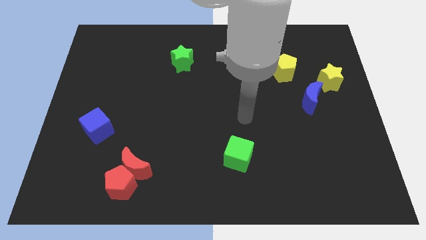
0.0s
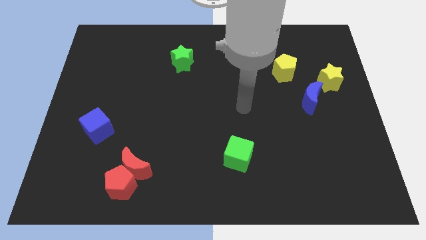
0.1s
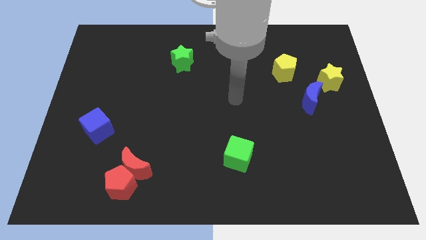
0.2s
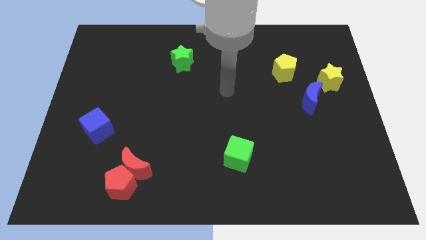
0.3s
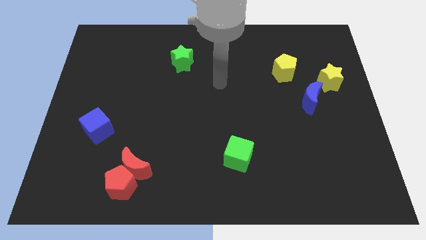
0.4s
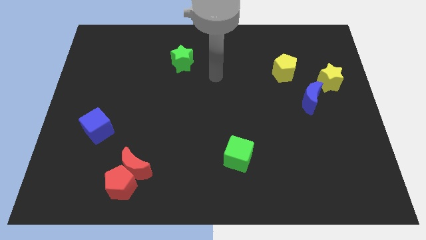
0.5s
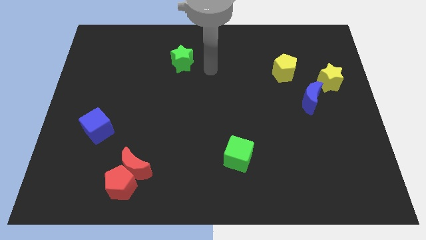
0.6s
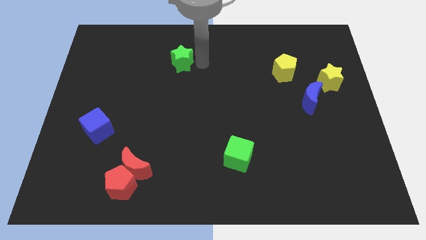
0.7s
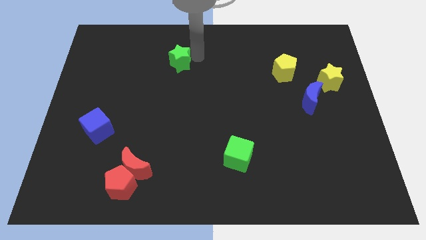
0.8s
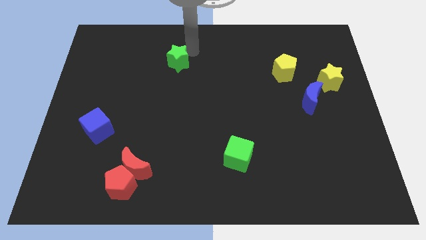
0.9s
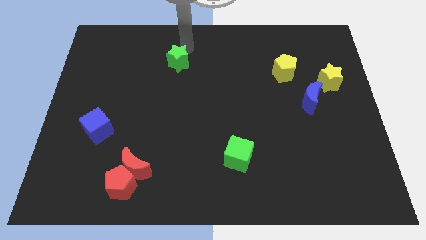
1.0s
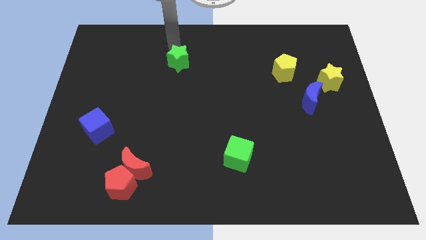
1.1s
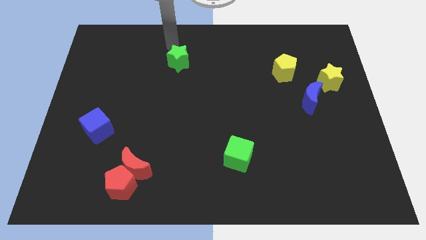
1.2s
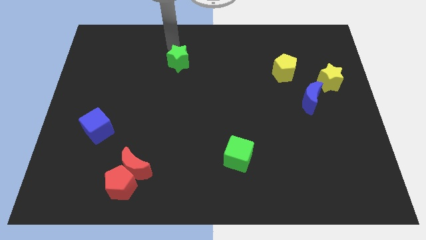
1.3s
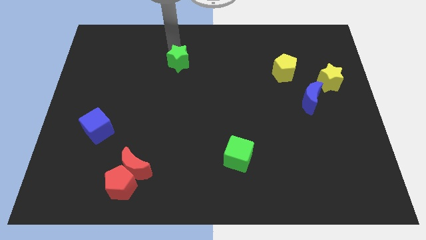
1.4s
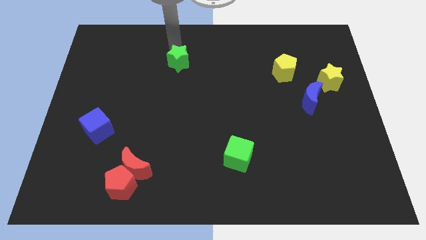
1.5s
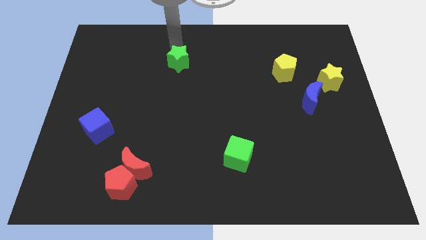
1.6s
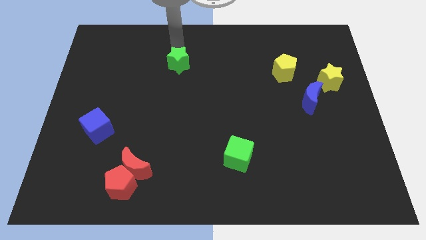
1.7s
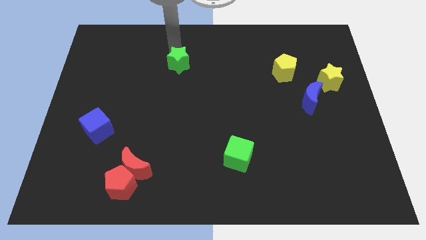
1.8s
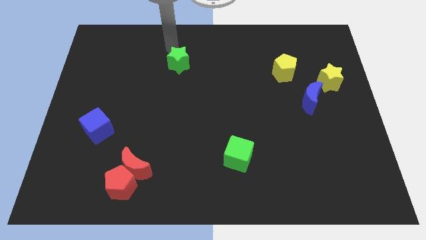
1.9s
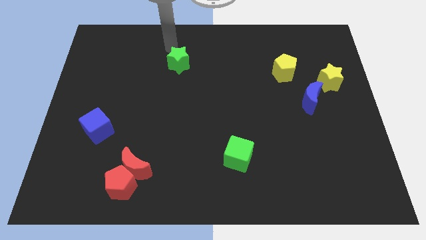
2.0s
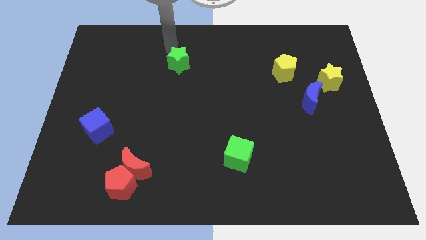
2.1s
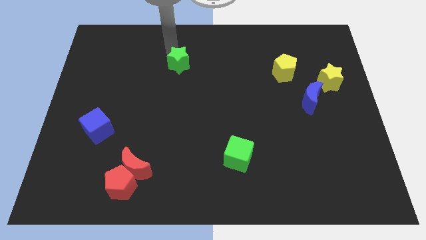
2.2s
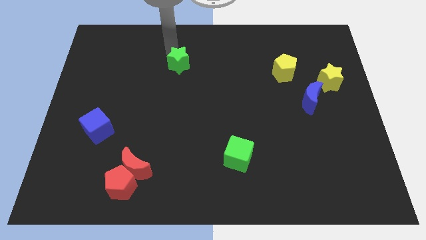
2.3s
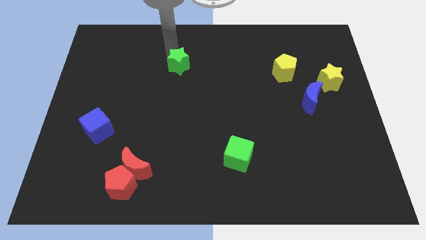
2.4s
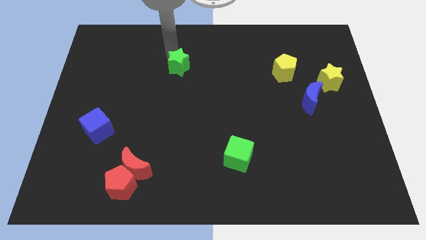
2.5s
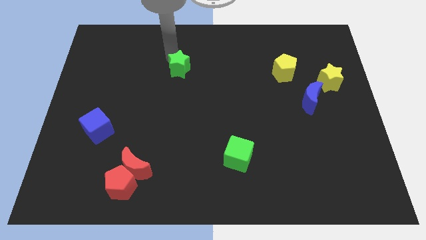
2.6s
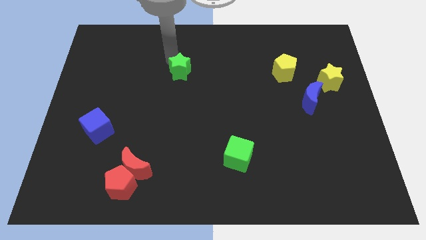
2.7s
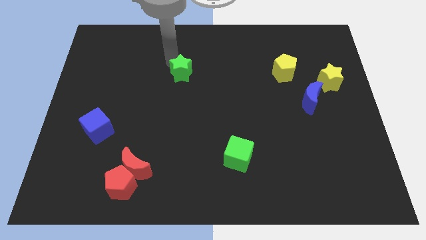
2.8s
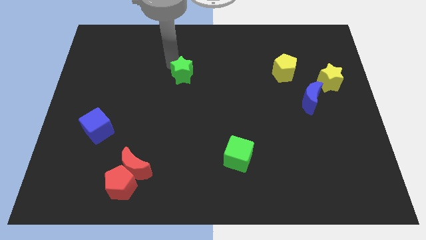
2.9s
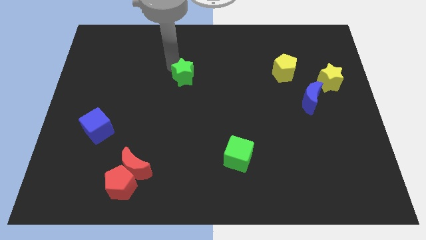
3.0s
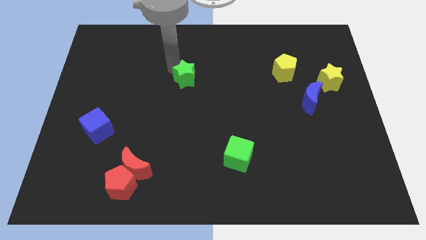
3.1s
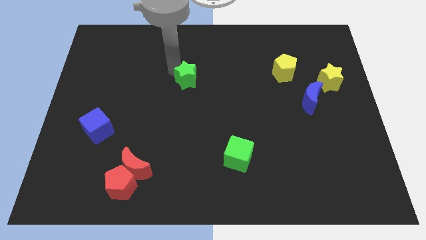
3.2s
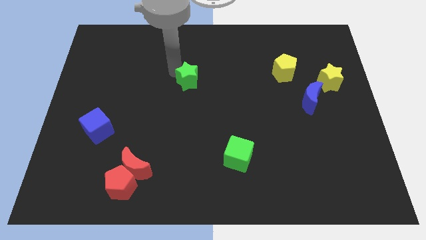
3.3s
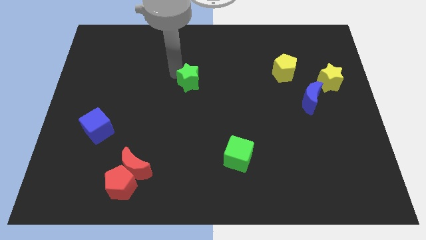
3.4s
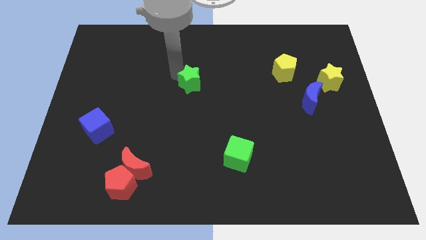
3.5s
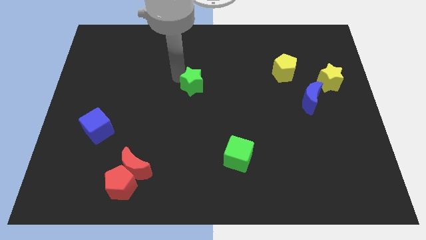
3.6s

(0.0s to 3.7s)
slightly slide the green star downwards and right

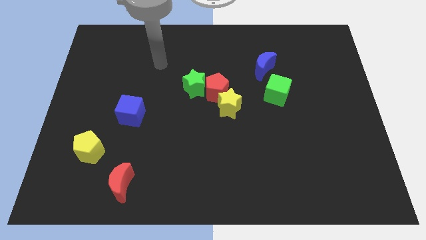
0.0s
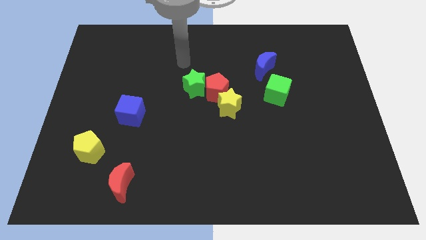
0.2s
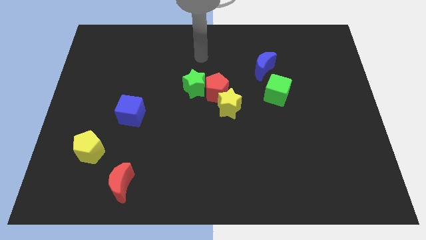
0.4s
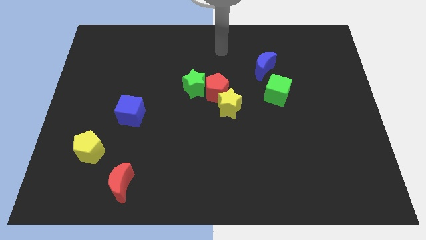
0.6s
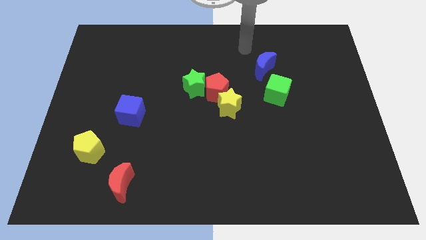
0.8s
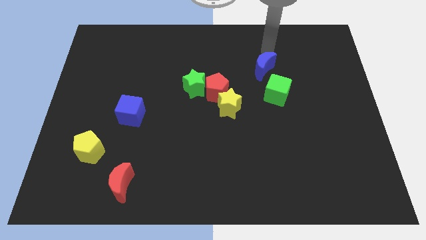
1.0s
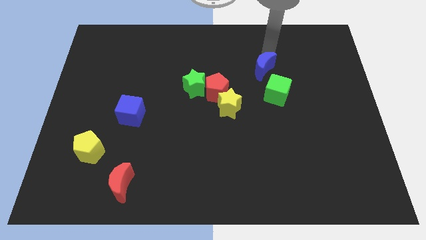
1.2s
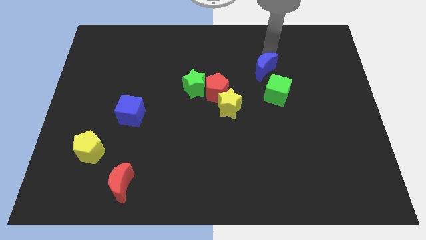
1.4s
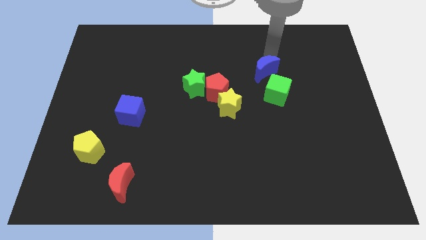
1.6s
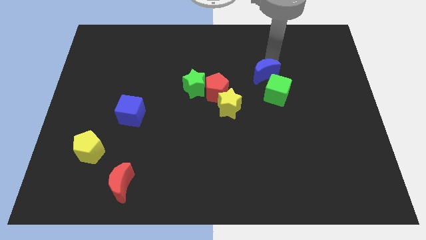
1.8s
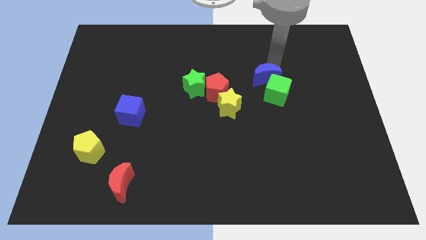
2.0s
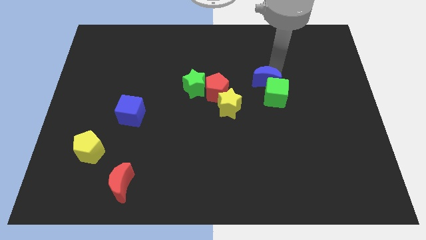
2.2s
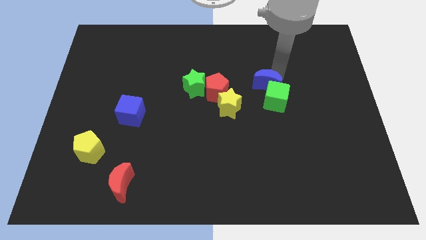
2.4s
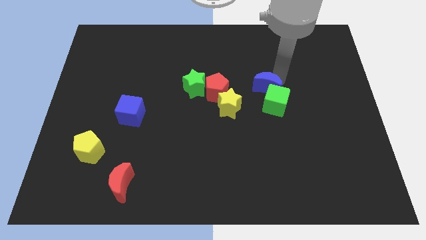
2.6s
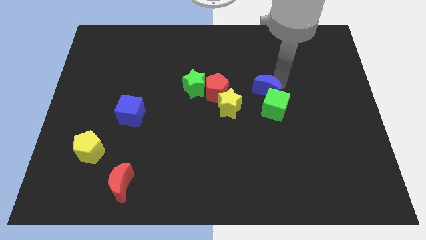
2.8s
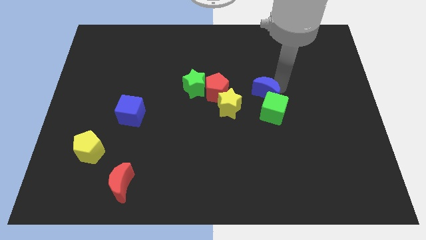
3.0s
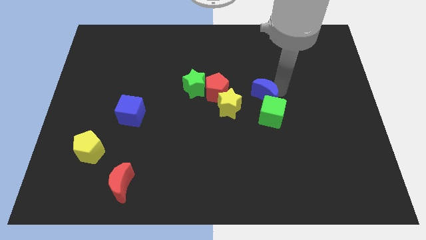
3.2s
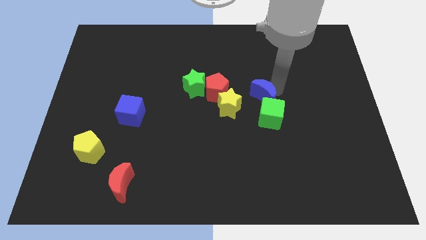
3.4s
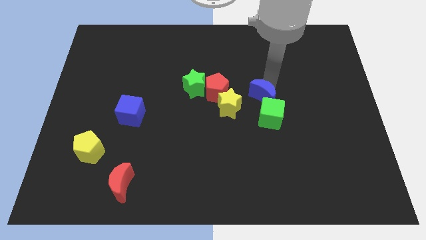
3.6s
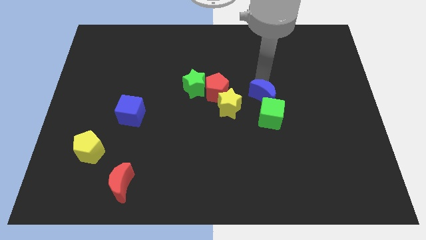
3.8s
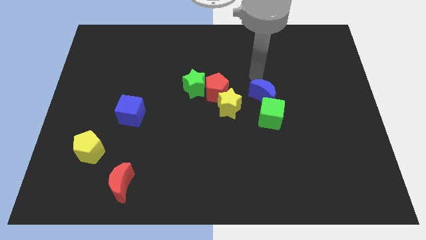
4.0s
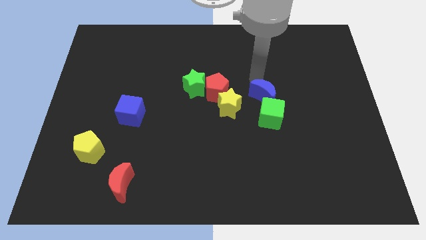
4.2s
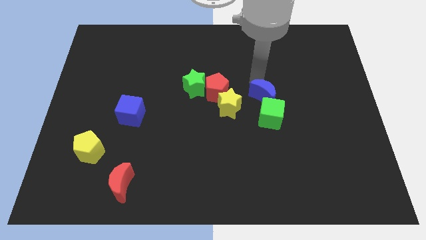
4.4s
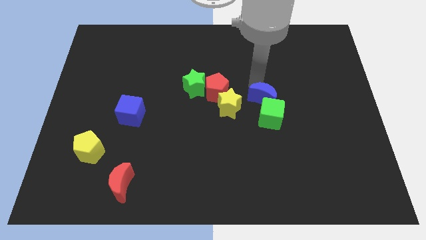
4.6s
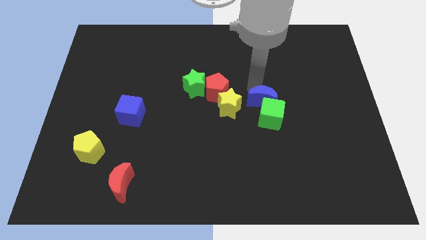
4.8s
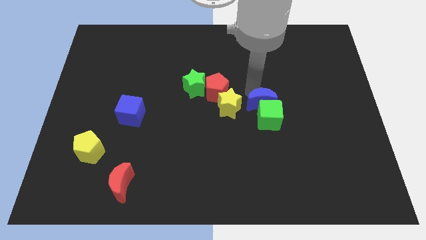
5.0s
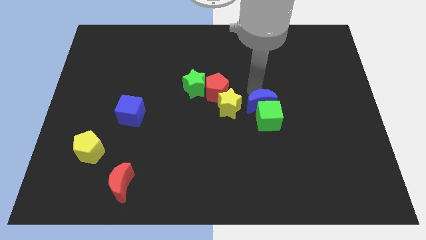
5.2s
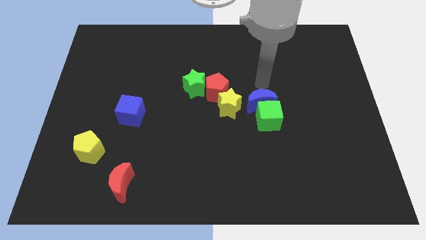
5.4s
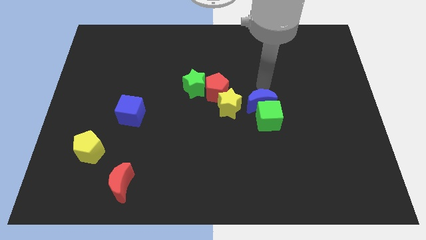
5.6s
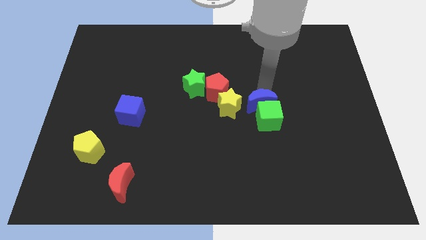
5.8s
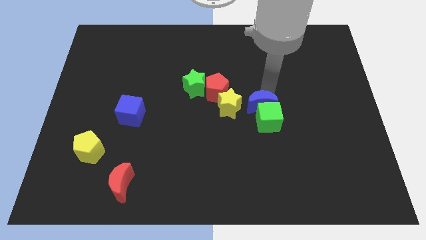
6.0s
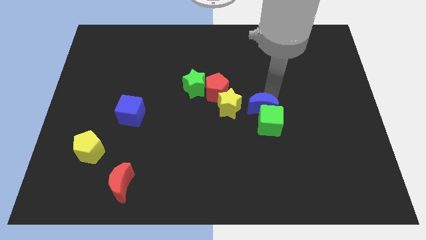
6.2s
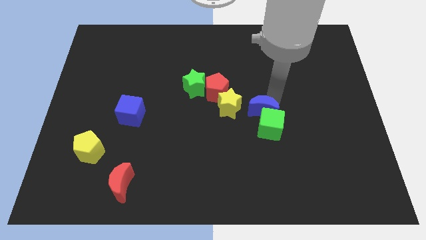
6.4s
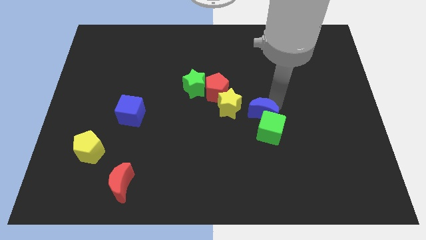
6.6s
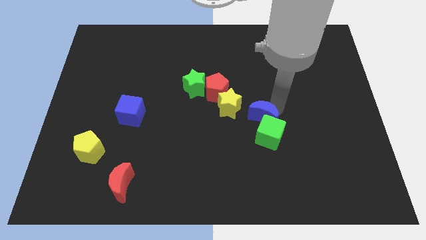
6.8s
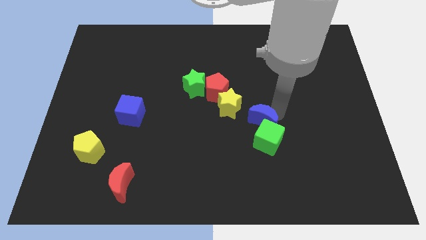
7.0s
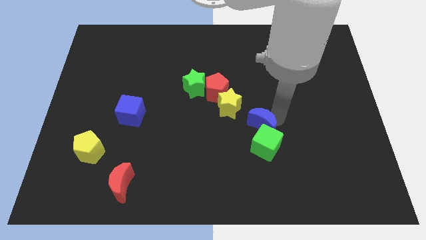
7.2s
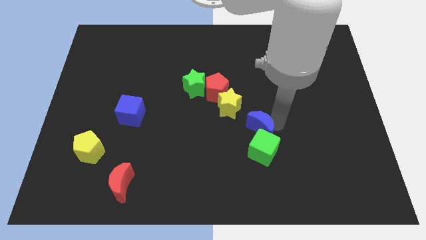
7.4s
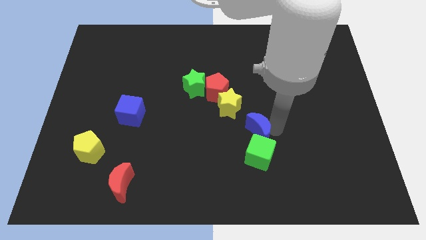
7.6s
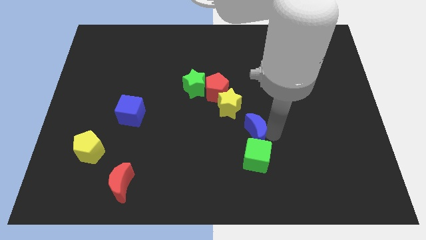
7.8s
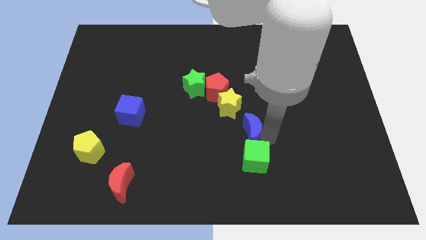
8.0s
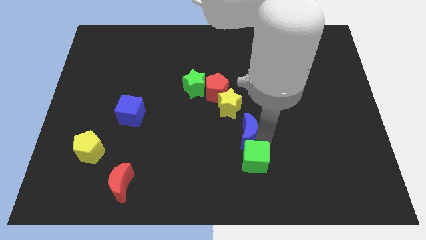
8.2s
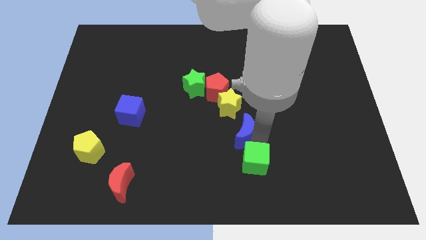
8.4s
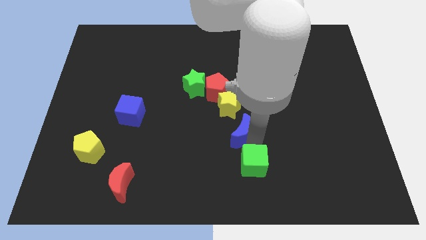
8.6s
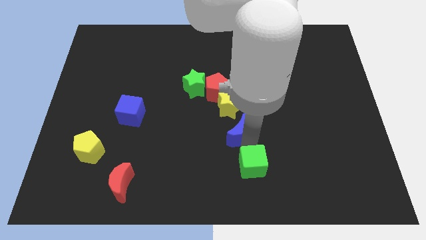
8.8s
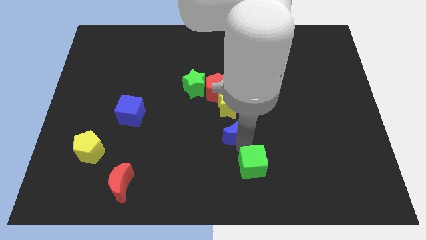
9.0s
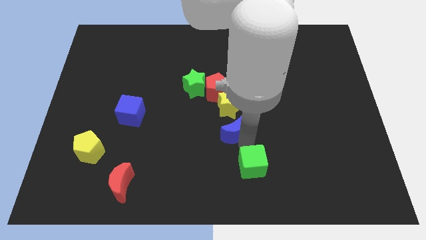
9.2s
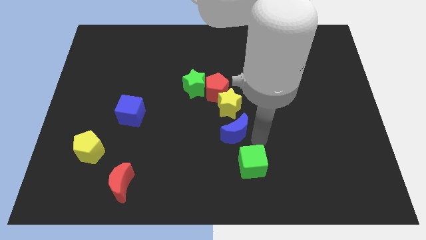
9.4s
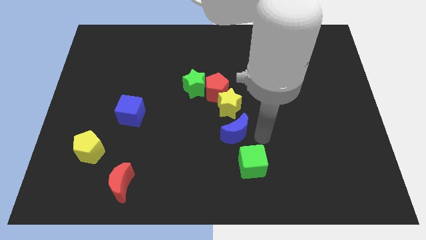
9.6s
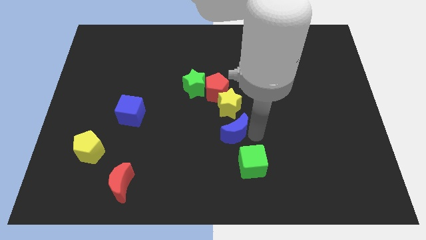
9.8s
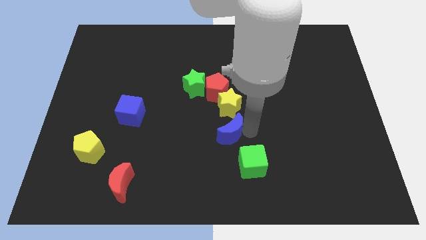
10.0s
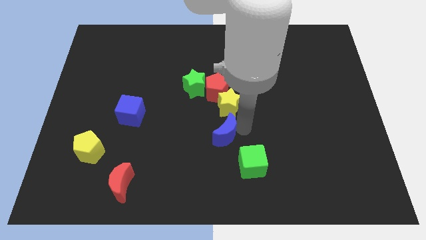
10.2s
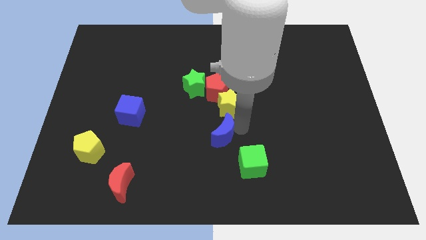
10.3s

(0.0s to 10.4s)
push the blue moon down and left
